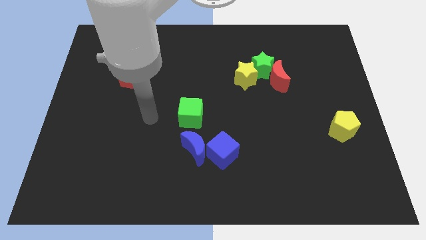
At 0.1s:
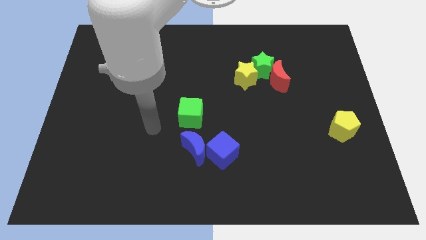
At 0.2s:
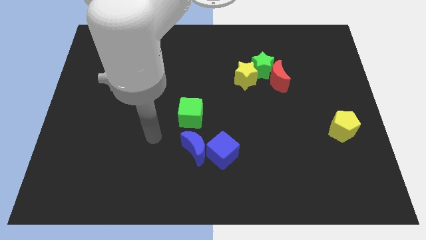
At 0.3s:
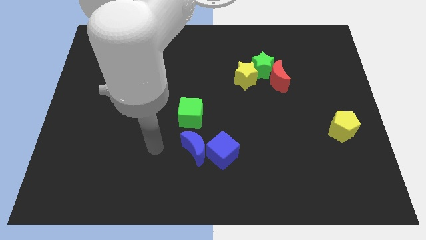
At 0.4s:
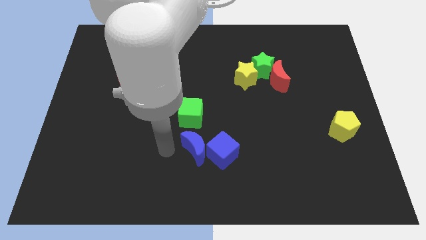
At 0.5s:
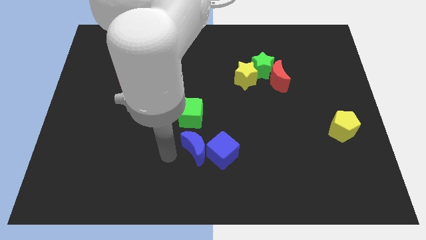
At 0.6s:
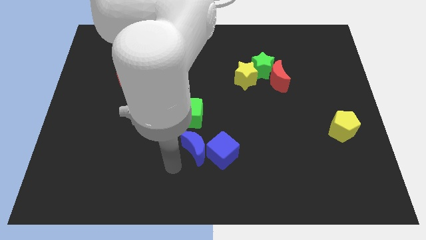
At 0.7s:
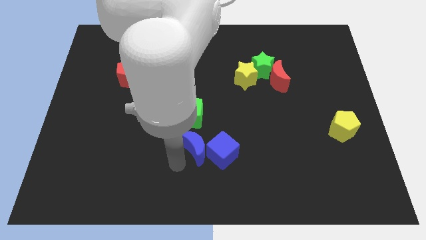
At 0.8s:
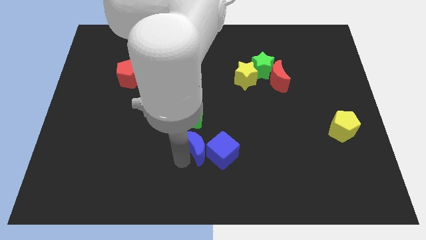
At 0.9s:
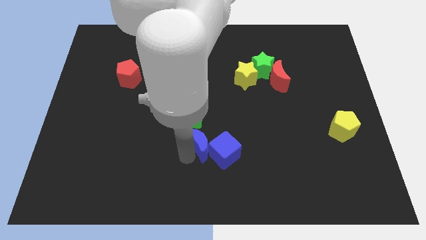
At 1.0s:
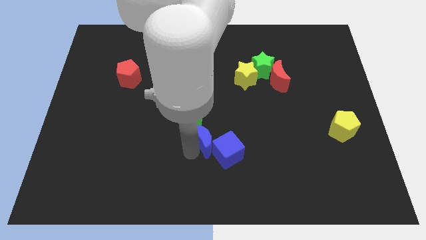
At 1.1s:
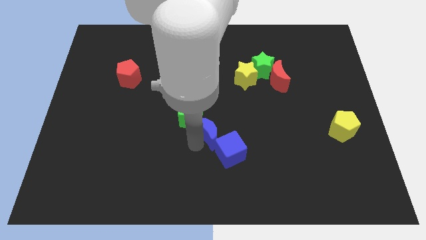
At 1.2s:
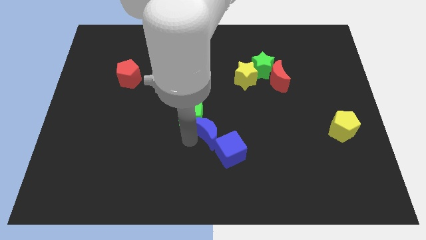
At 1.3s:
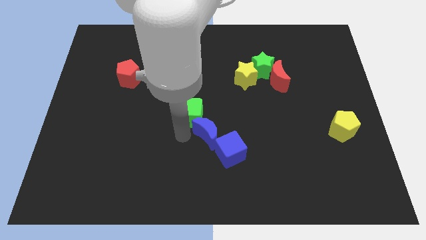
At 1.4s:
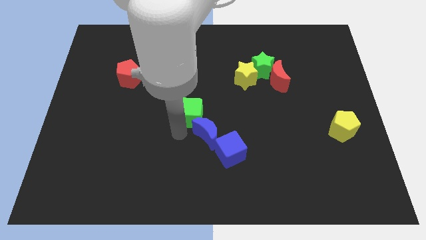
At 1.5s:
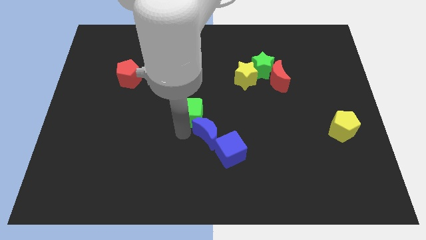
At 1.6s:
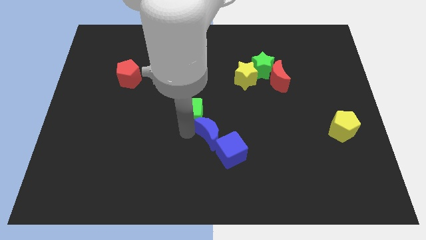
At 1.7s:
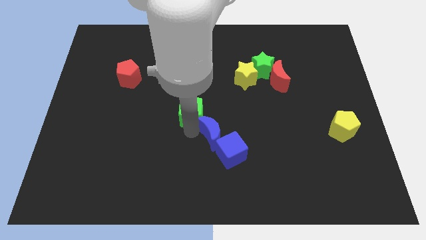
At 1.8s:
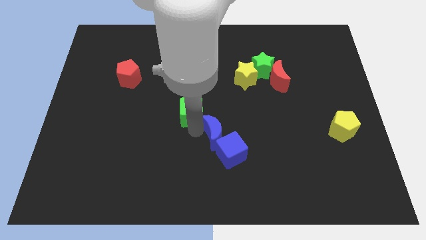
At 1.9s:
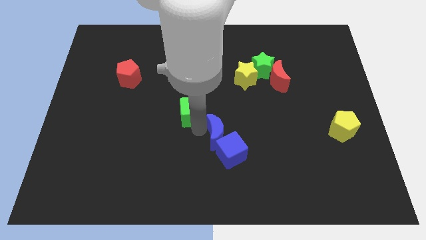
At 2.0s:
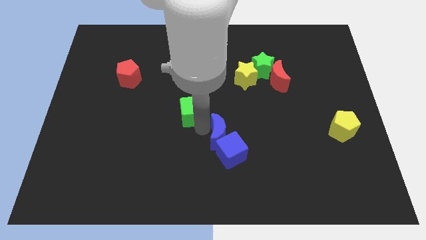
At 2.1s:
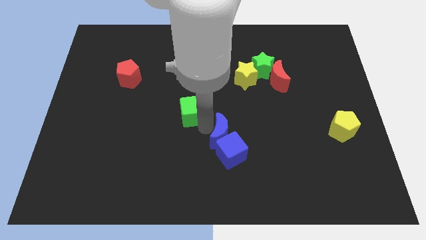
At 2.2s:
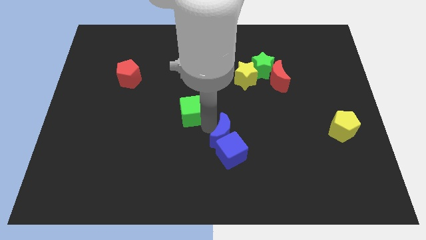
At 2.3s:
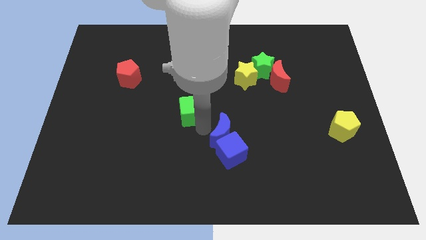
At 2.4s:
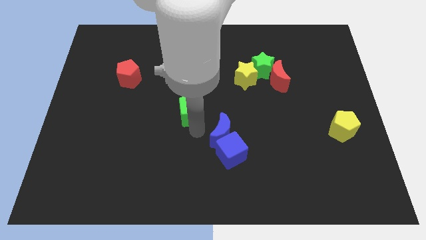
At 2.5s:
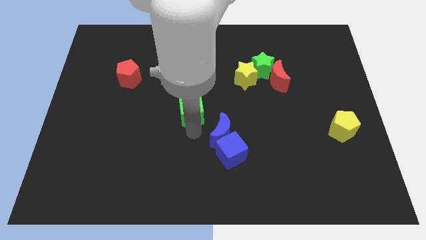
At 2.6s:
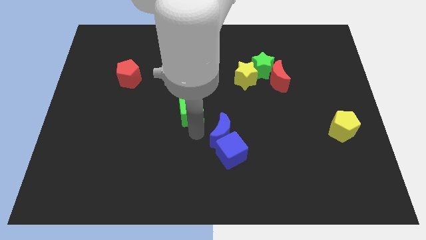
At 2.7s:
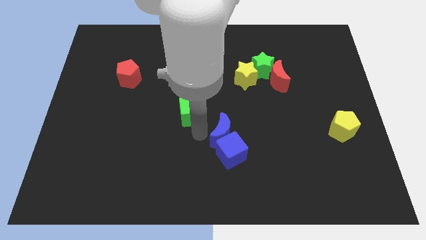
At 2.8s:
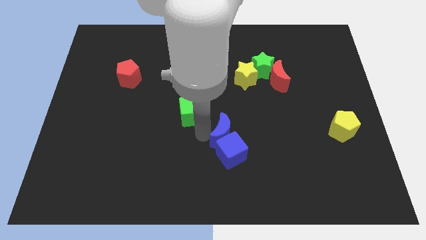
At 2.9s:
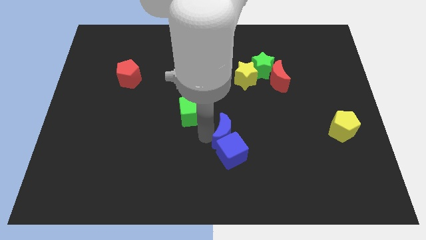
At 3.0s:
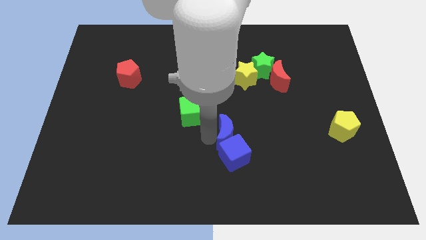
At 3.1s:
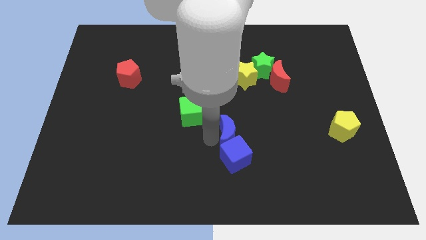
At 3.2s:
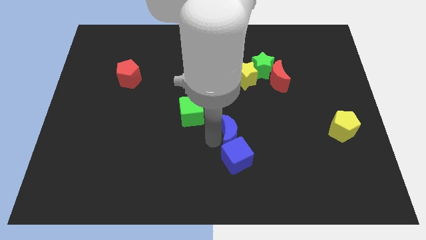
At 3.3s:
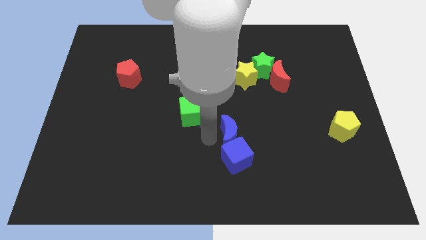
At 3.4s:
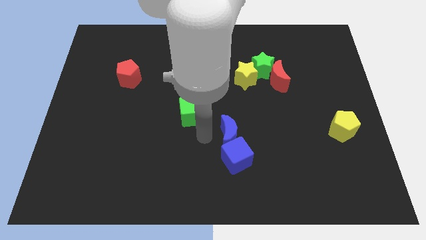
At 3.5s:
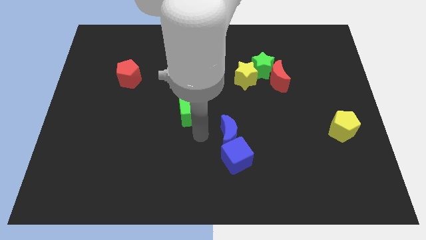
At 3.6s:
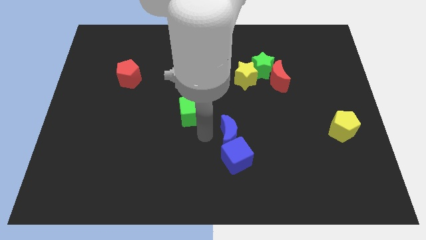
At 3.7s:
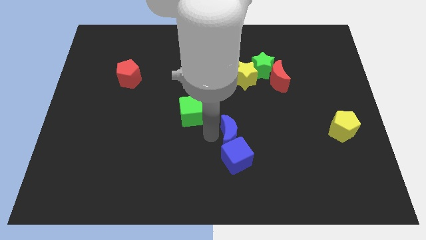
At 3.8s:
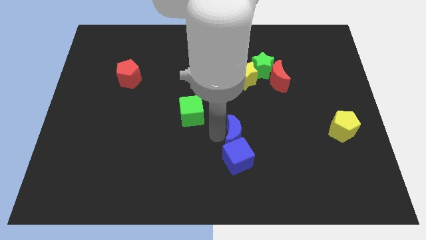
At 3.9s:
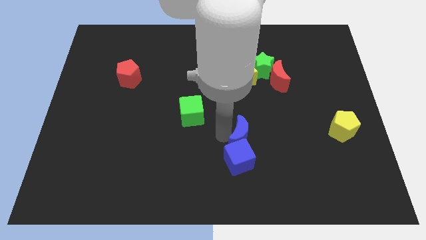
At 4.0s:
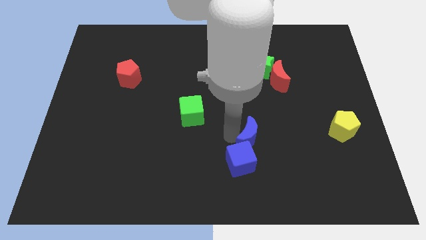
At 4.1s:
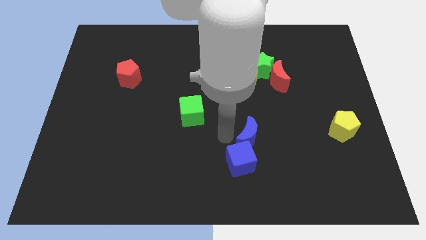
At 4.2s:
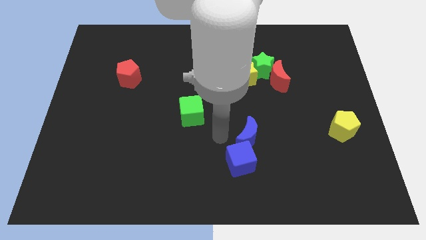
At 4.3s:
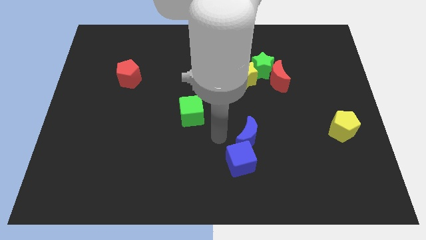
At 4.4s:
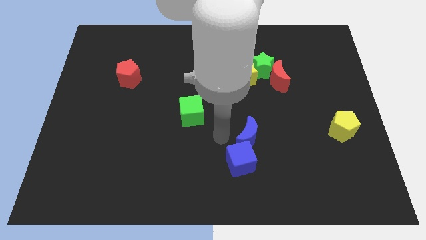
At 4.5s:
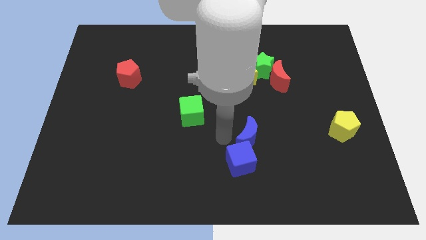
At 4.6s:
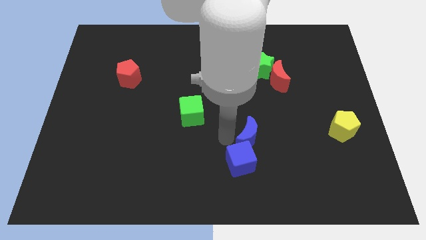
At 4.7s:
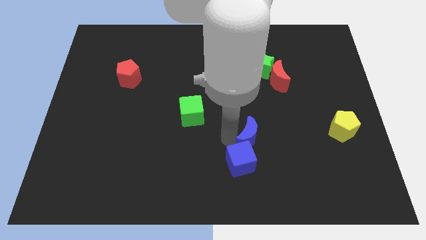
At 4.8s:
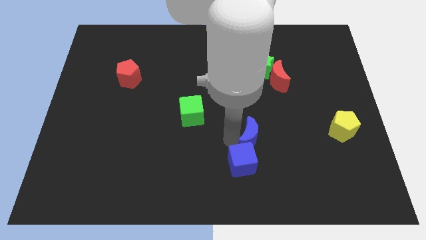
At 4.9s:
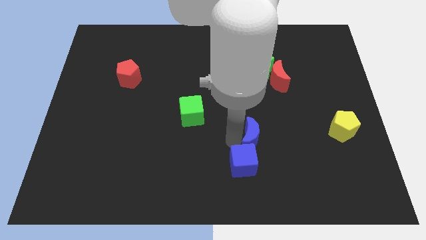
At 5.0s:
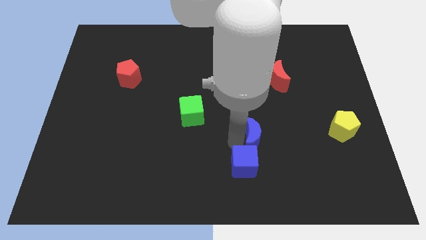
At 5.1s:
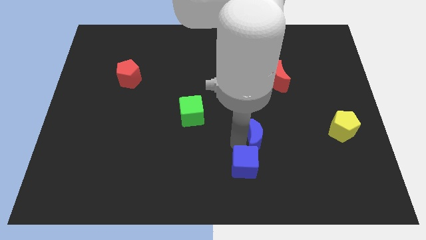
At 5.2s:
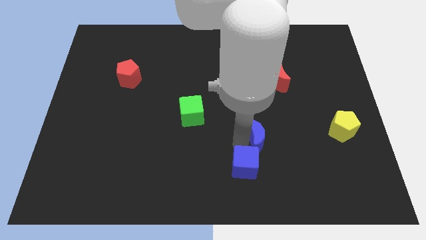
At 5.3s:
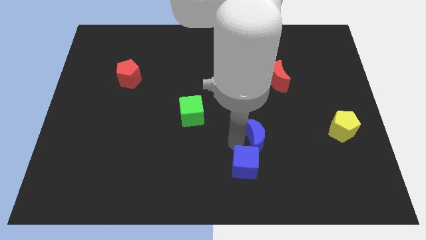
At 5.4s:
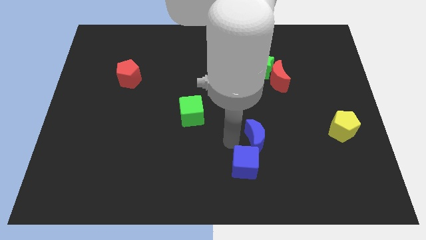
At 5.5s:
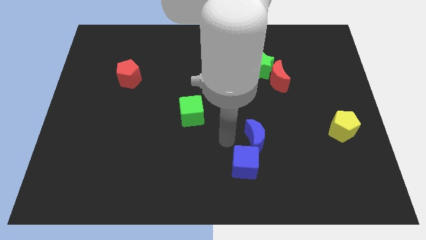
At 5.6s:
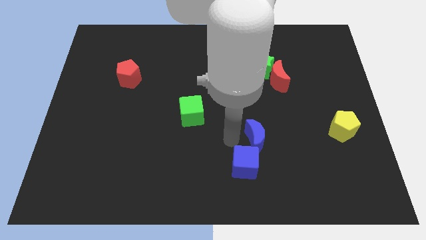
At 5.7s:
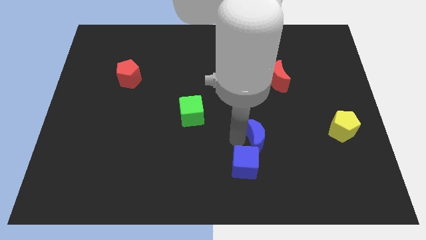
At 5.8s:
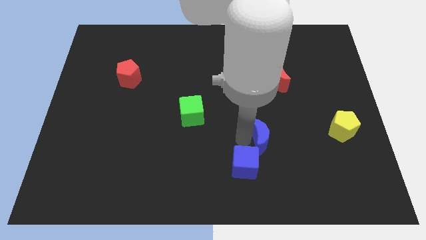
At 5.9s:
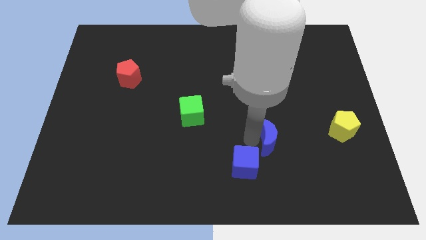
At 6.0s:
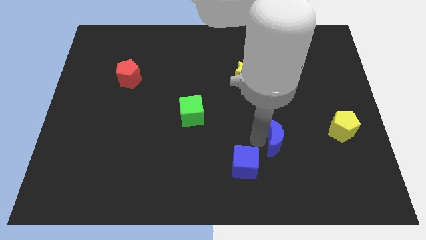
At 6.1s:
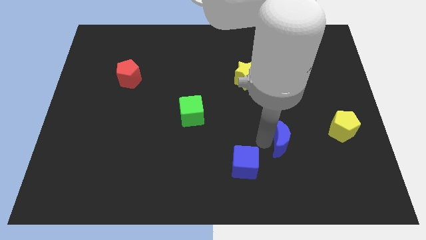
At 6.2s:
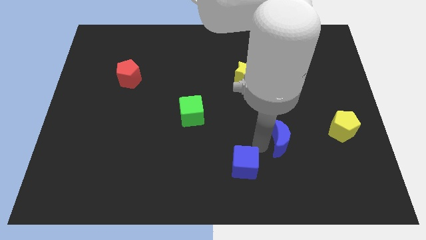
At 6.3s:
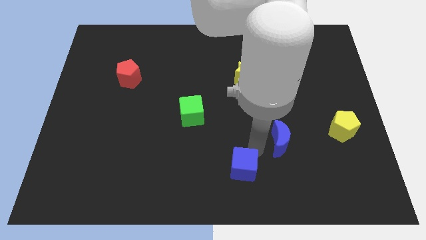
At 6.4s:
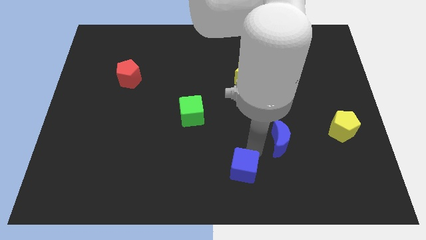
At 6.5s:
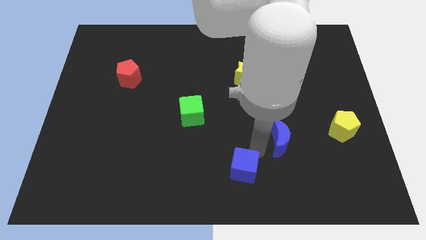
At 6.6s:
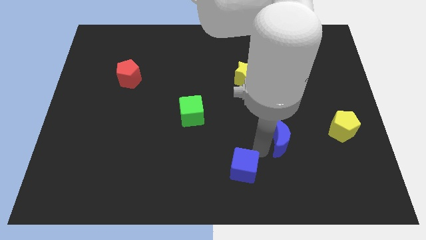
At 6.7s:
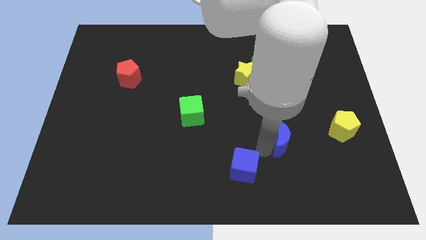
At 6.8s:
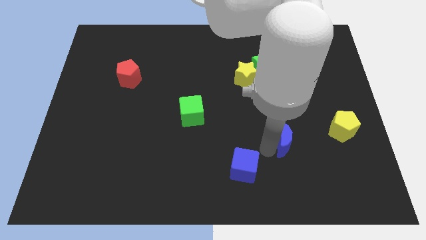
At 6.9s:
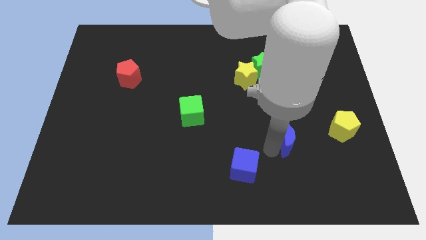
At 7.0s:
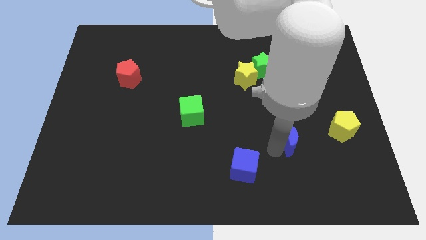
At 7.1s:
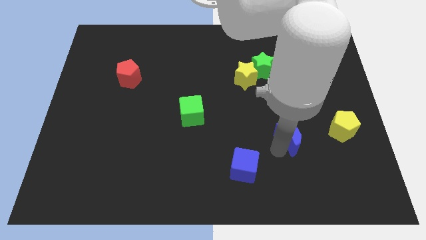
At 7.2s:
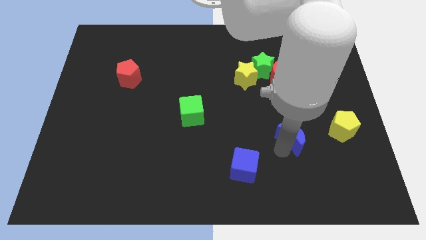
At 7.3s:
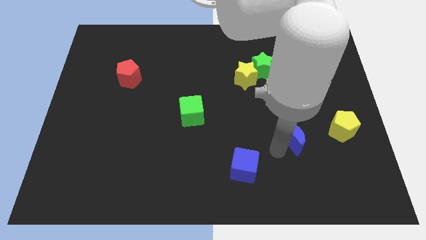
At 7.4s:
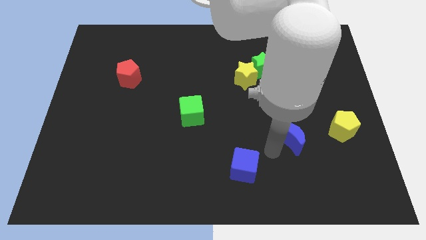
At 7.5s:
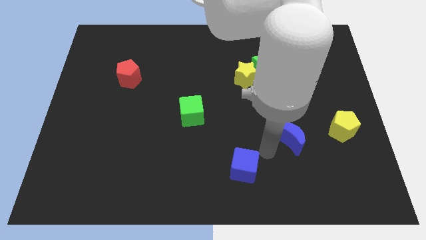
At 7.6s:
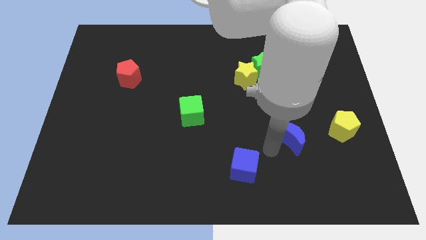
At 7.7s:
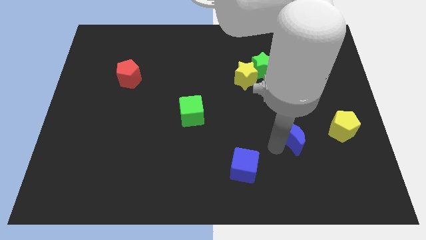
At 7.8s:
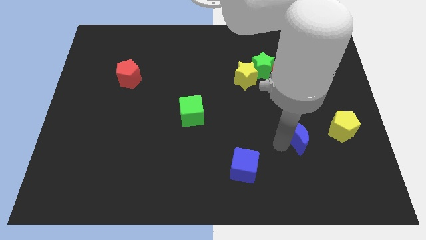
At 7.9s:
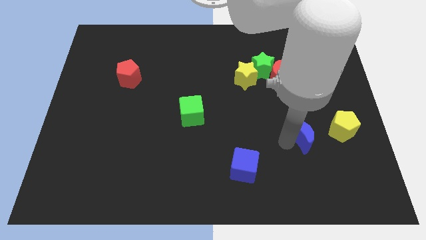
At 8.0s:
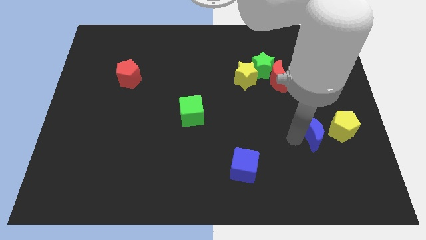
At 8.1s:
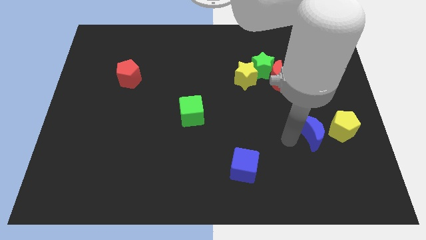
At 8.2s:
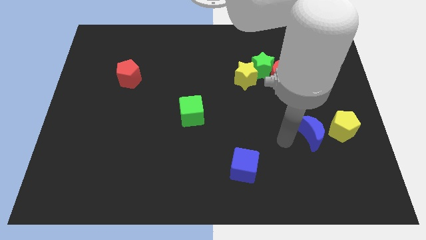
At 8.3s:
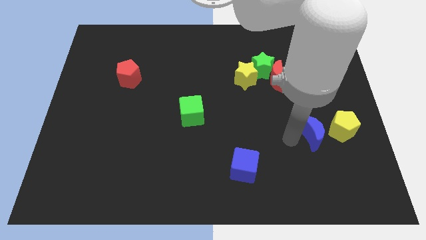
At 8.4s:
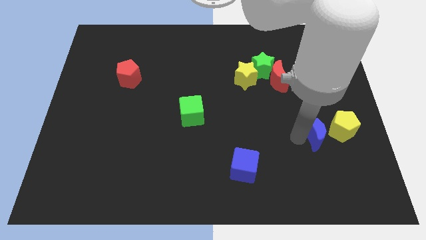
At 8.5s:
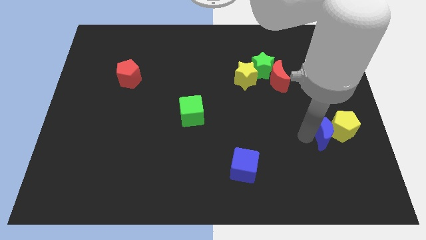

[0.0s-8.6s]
slide the blue moon next to the yellow pentagon
